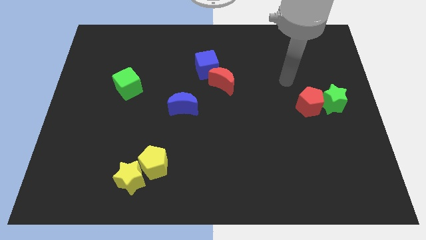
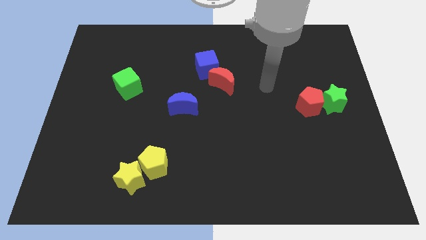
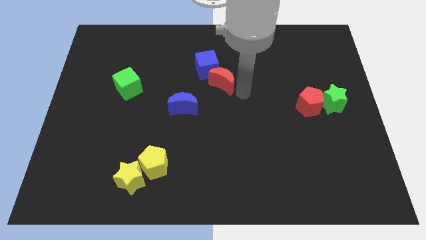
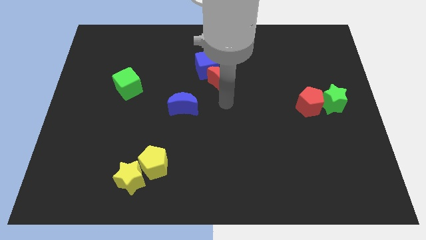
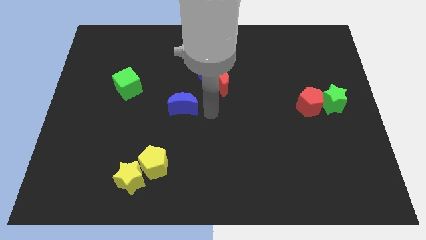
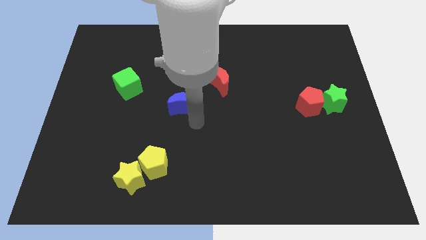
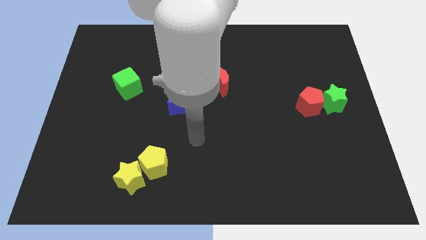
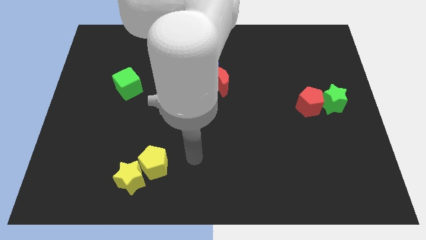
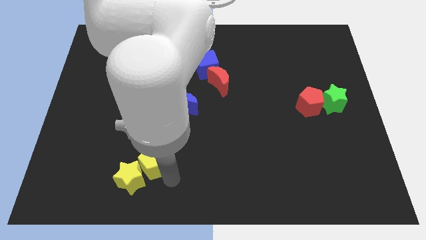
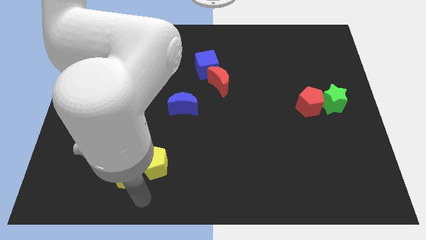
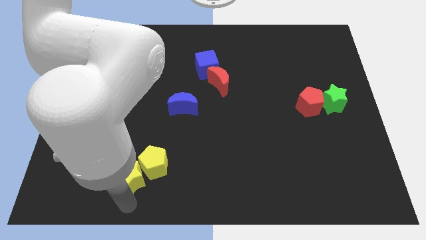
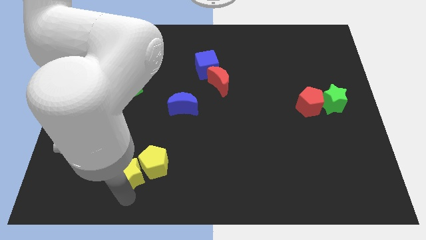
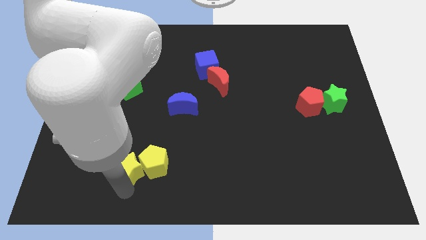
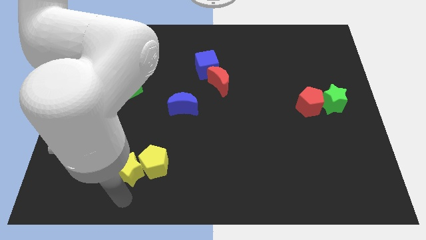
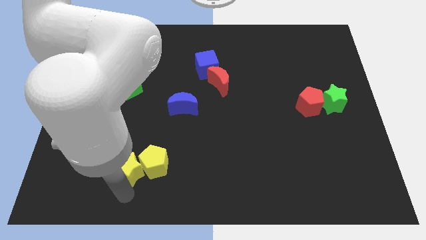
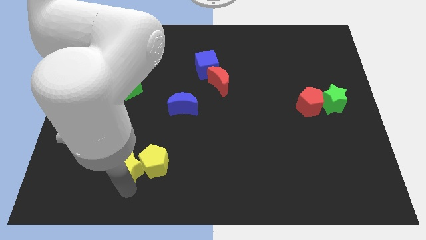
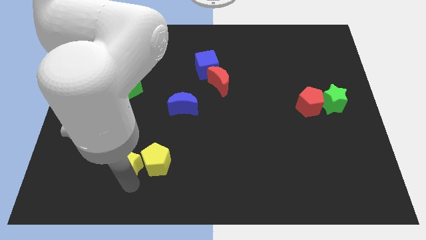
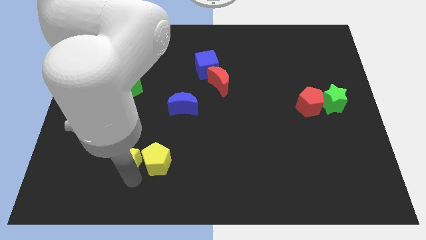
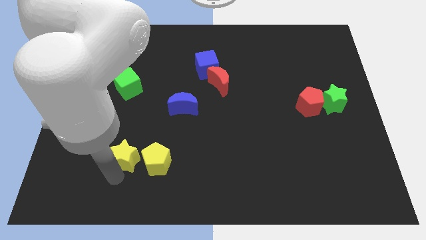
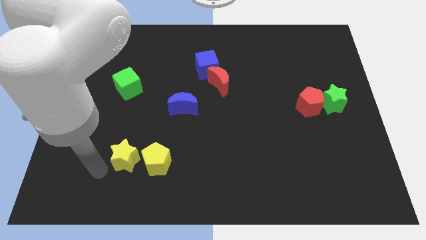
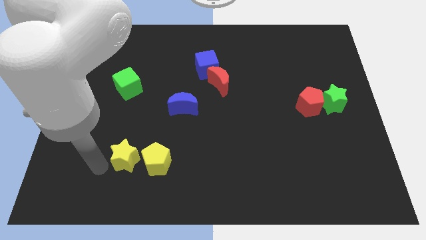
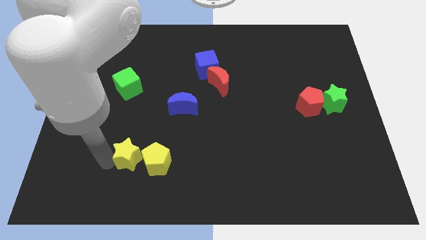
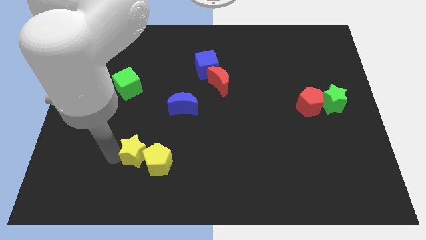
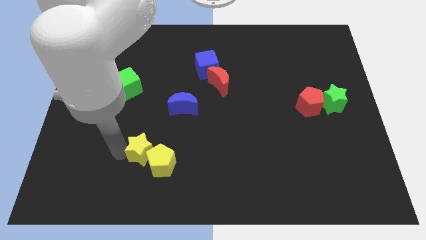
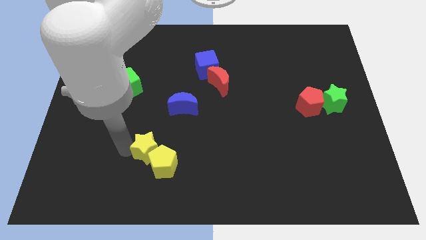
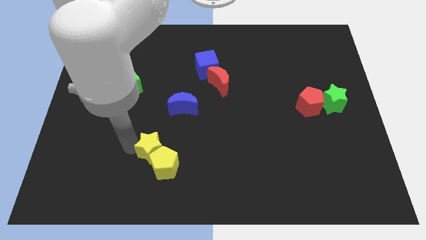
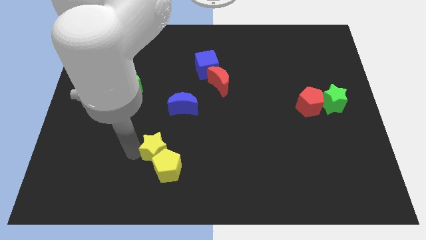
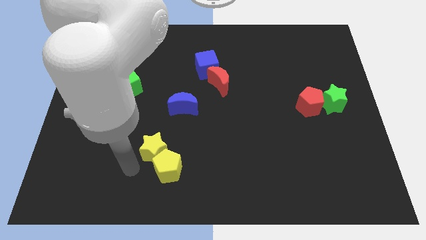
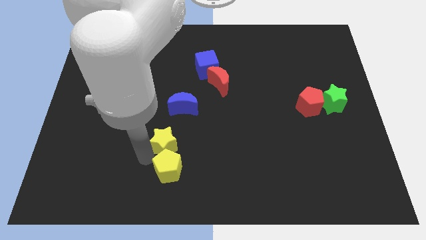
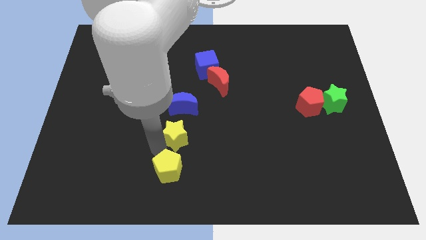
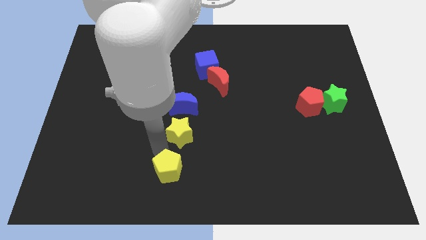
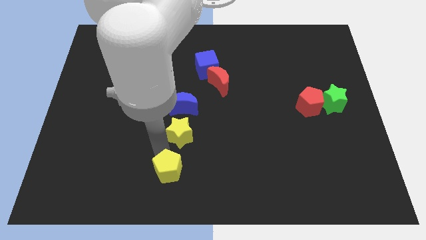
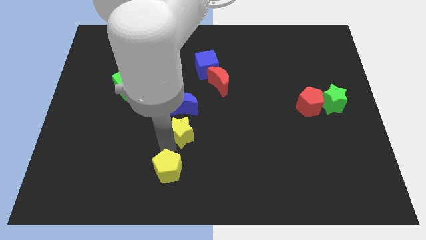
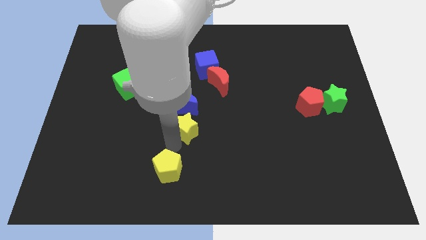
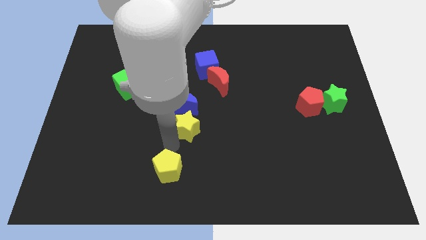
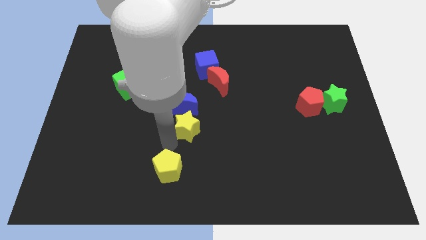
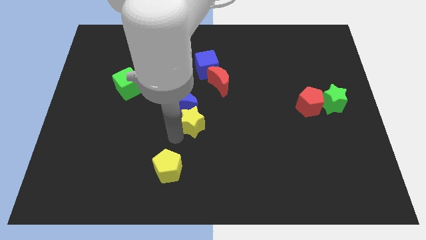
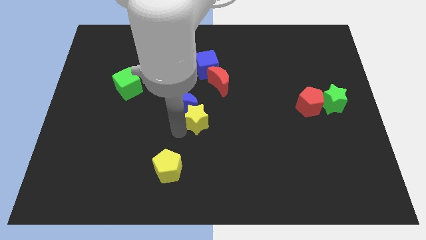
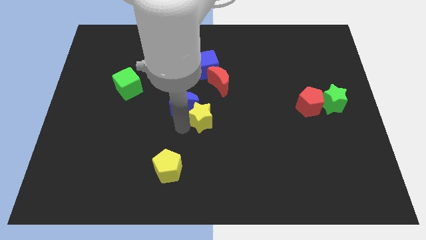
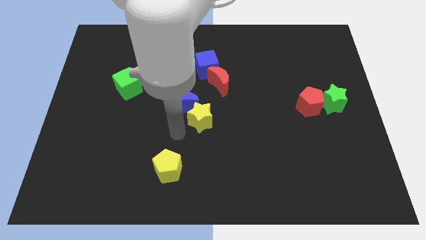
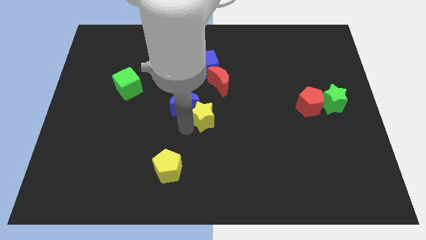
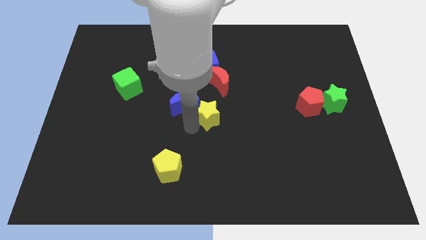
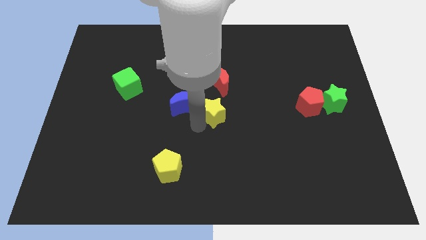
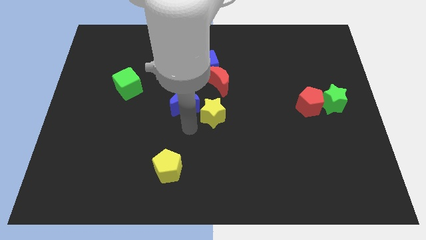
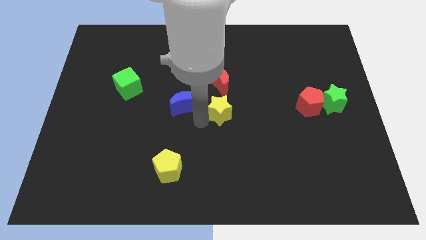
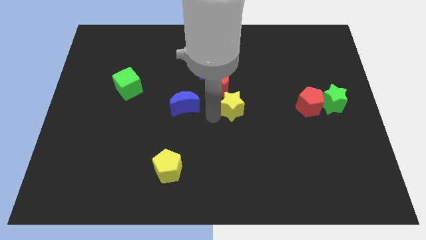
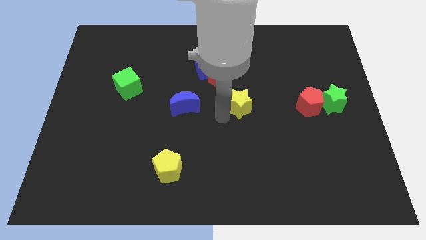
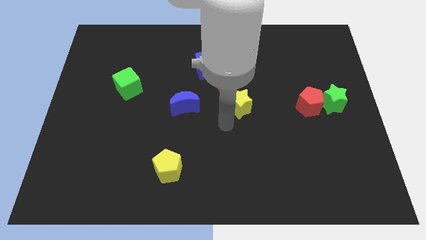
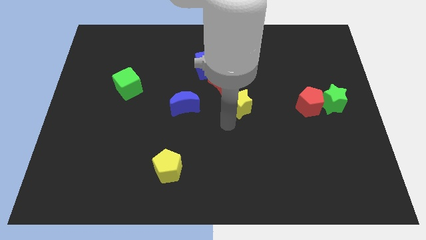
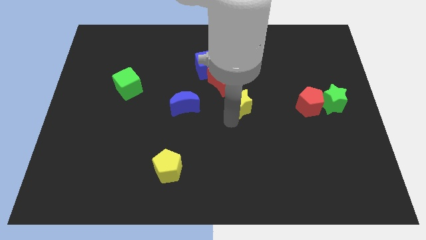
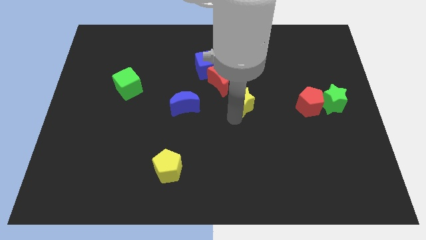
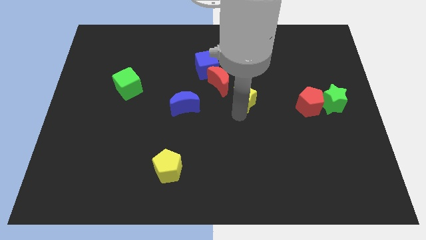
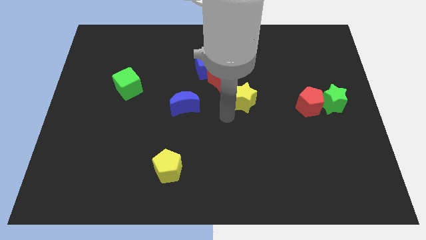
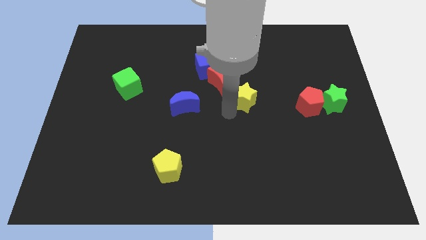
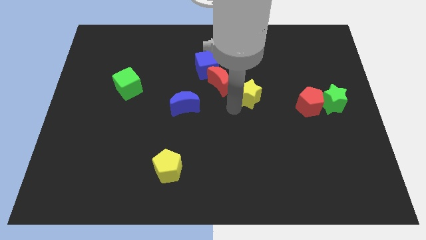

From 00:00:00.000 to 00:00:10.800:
move the yellow star to the right of the red moon

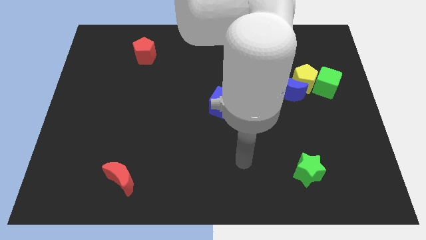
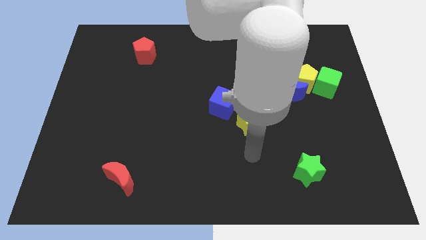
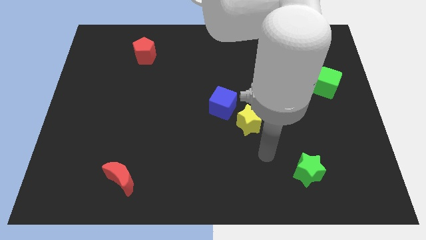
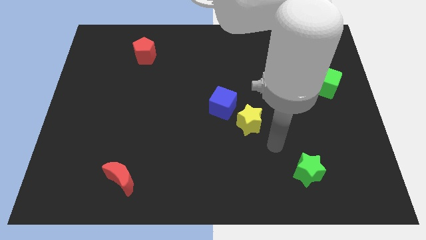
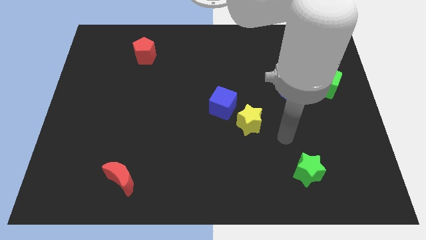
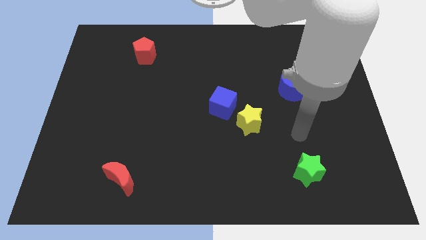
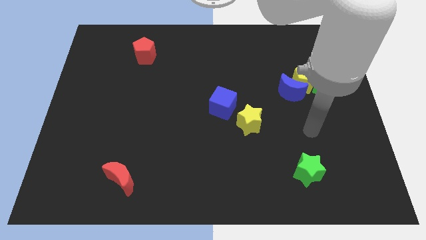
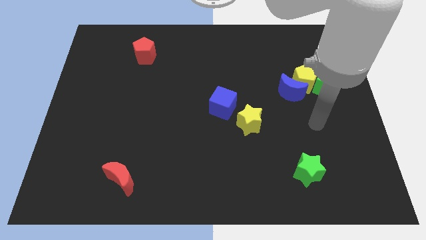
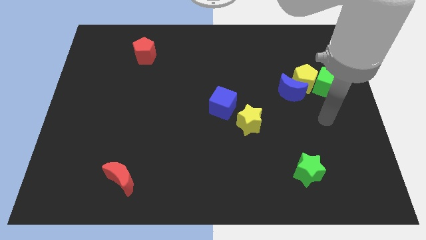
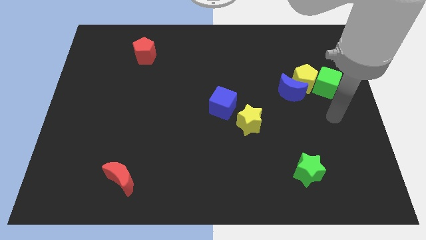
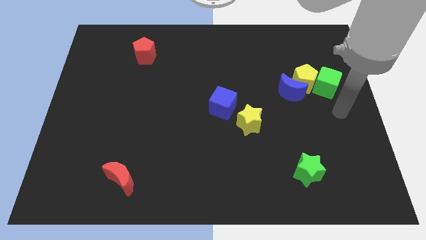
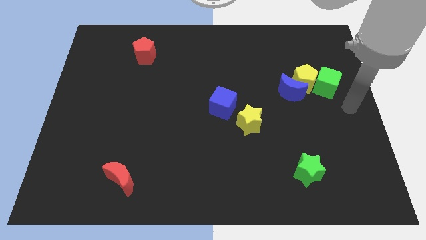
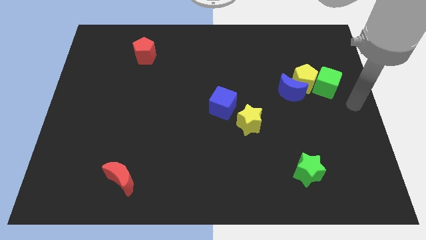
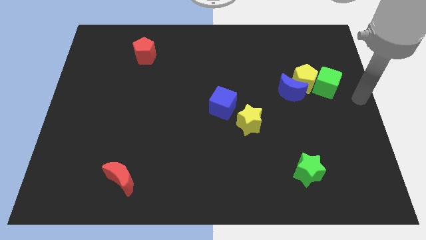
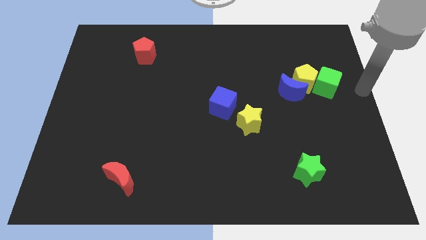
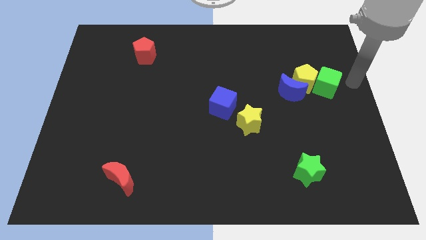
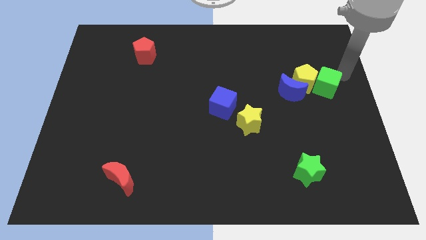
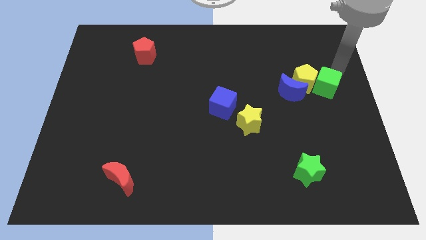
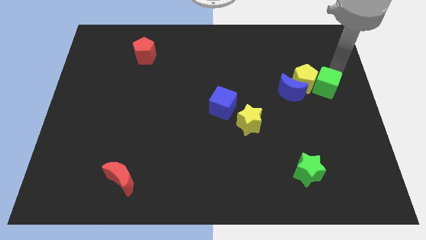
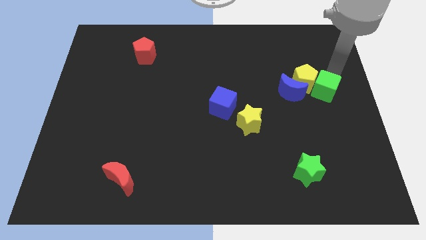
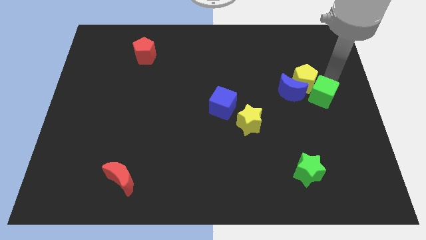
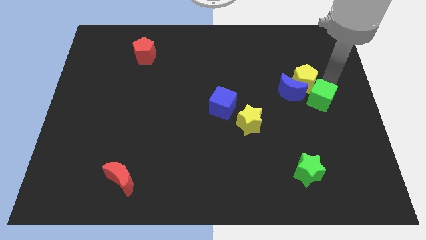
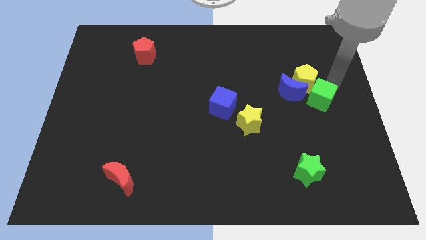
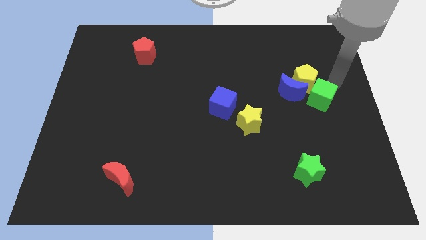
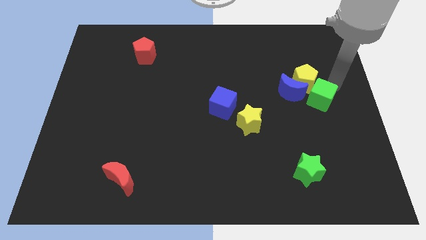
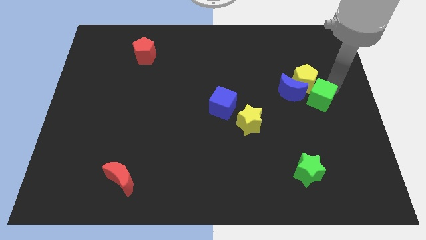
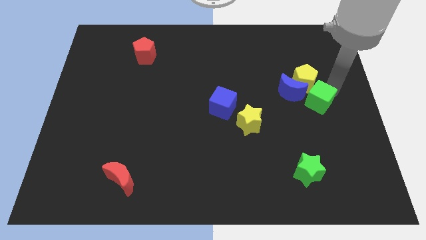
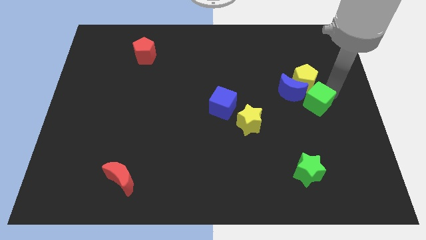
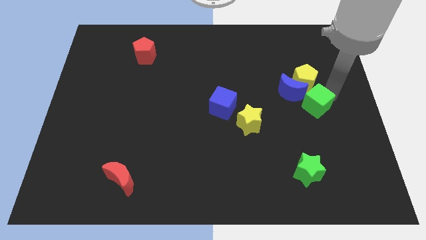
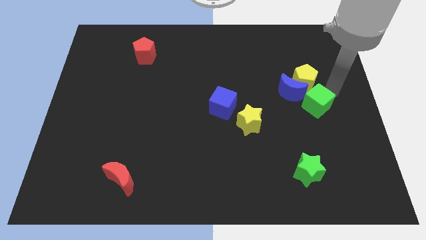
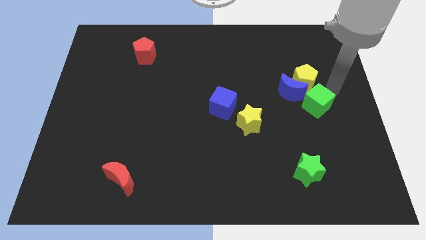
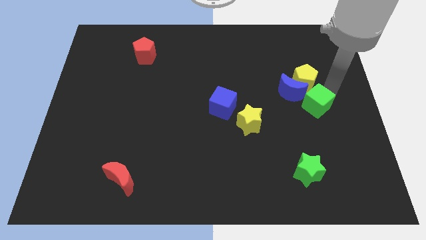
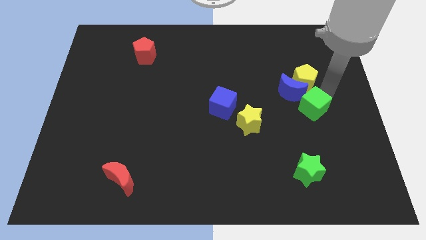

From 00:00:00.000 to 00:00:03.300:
slide the green cube below the blue moon
